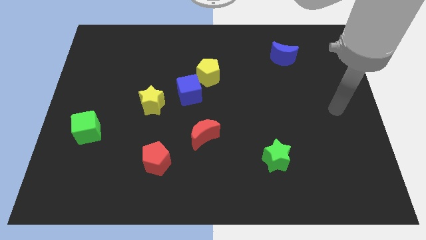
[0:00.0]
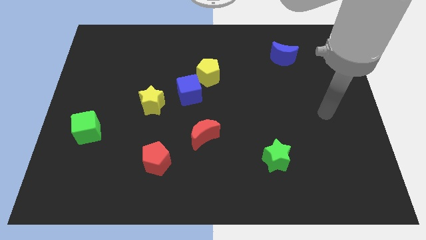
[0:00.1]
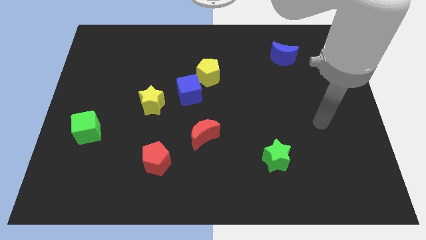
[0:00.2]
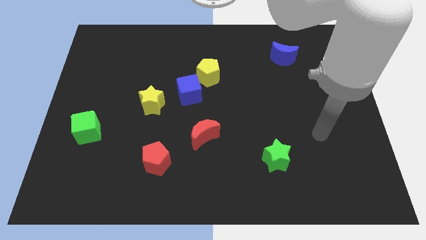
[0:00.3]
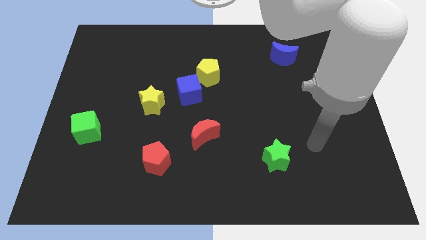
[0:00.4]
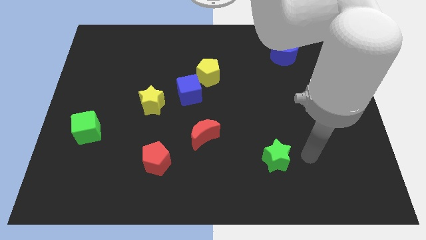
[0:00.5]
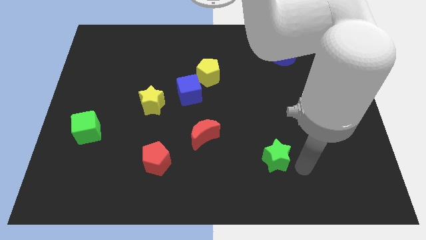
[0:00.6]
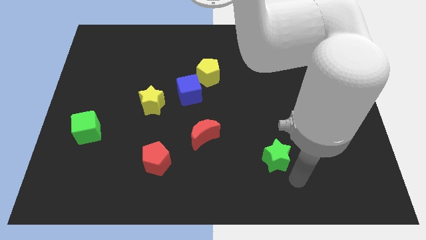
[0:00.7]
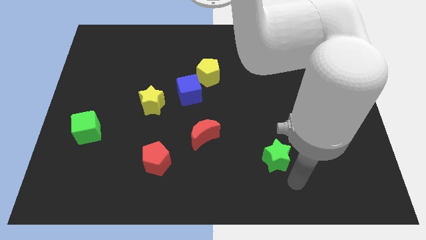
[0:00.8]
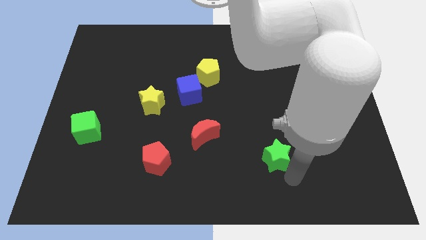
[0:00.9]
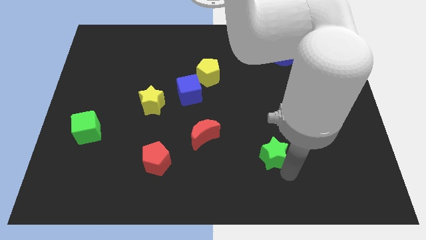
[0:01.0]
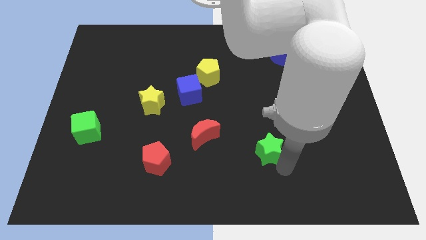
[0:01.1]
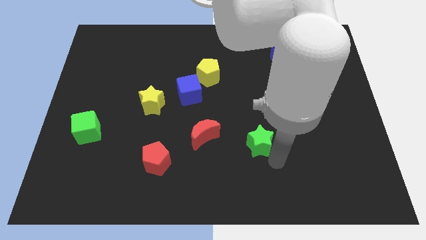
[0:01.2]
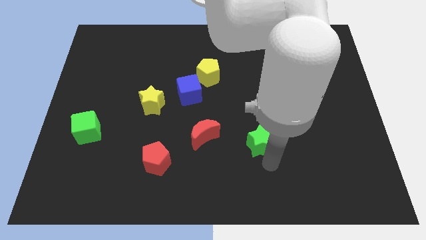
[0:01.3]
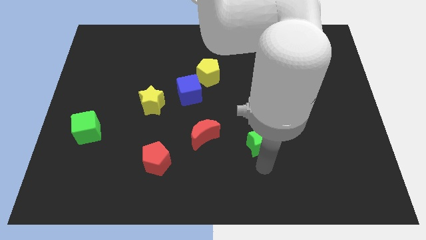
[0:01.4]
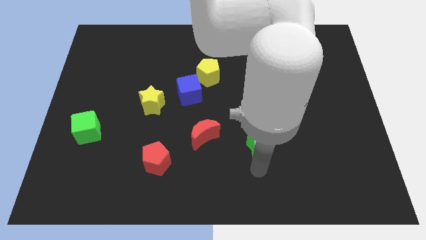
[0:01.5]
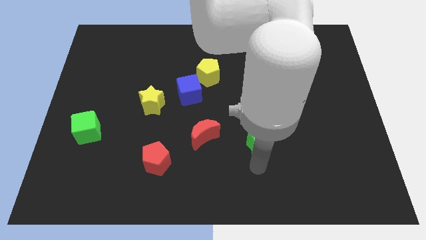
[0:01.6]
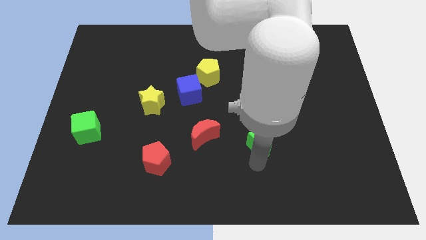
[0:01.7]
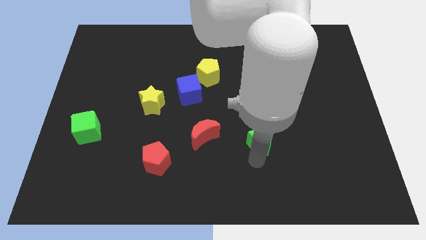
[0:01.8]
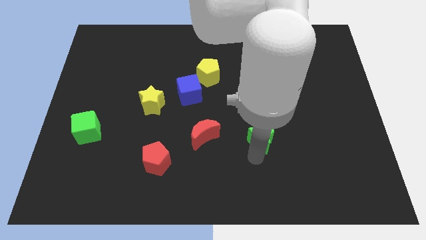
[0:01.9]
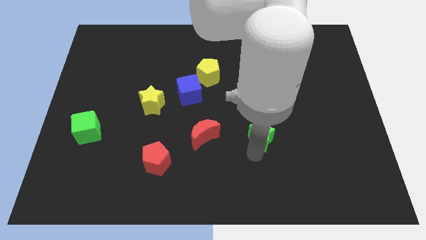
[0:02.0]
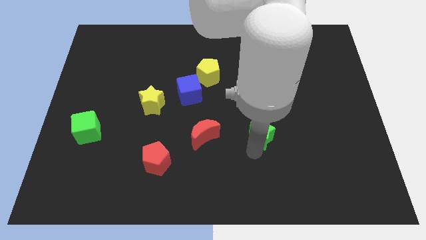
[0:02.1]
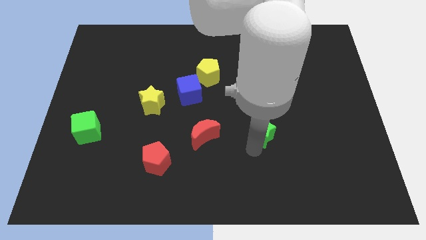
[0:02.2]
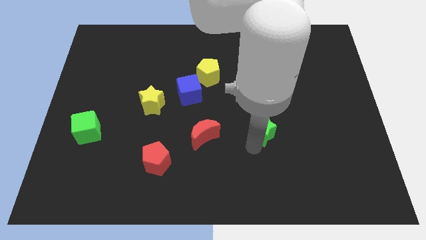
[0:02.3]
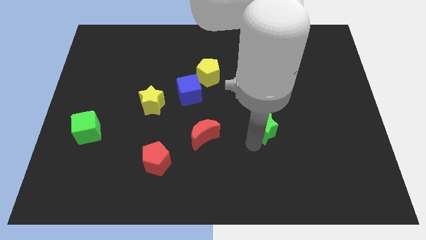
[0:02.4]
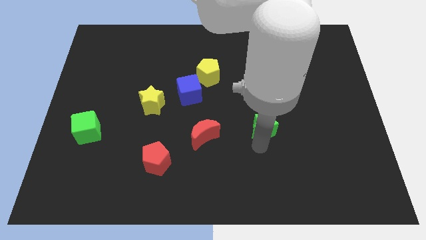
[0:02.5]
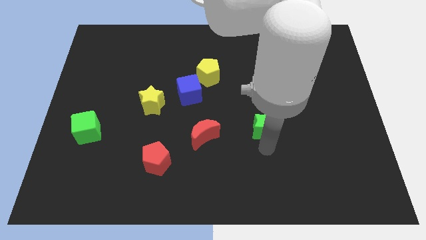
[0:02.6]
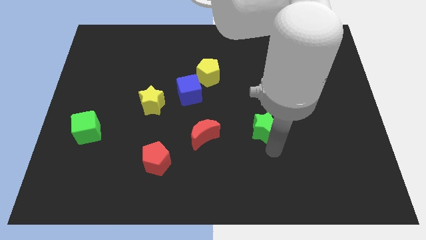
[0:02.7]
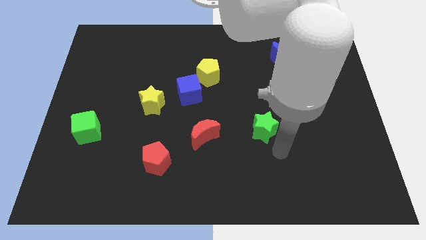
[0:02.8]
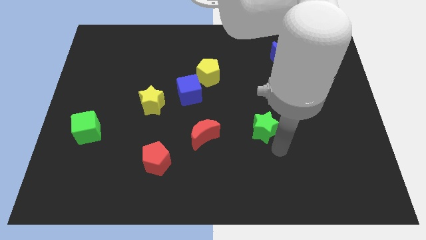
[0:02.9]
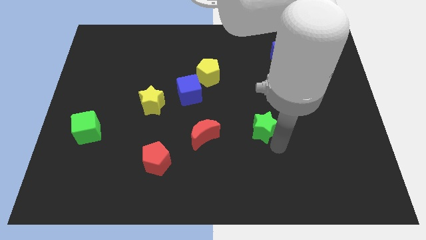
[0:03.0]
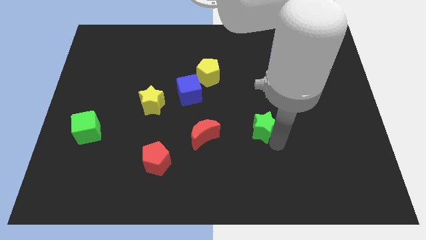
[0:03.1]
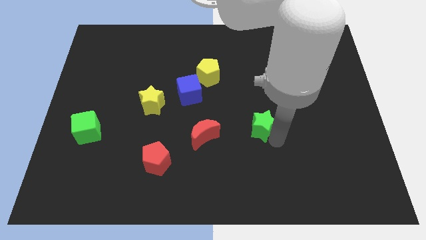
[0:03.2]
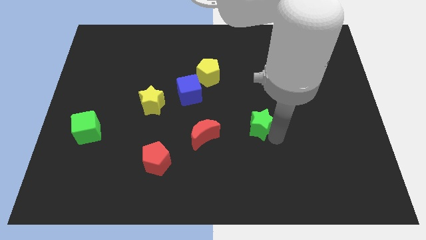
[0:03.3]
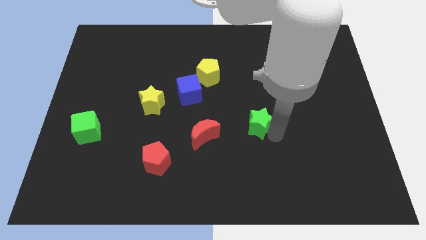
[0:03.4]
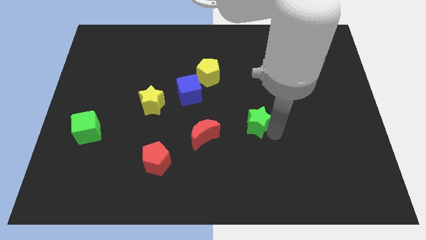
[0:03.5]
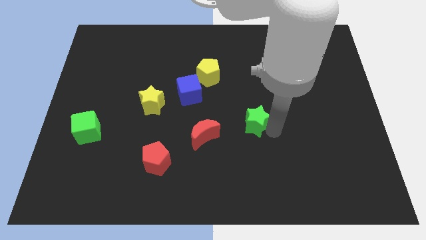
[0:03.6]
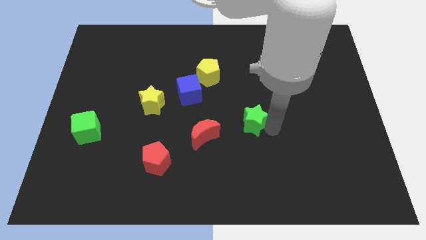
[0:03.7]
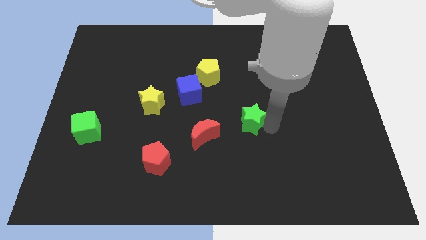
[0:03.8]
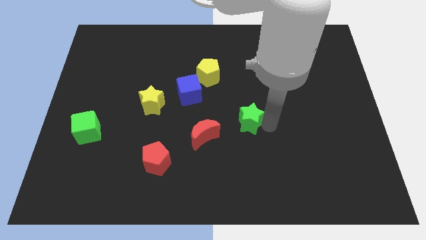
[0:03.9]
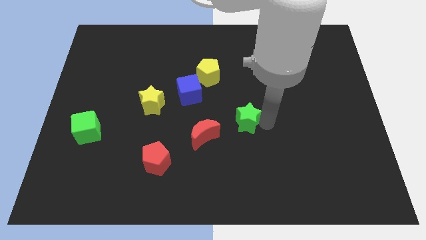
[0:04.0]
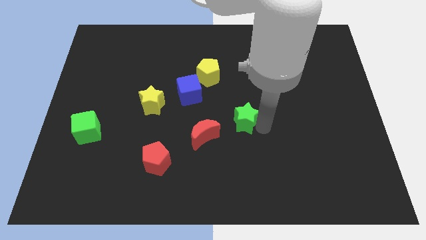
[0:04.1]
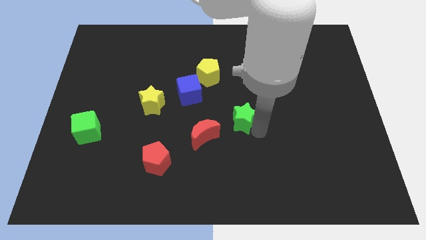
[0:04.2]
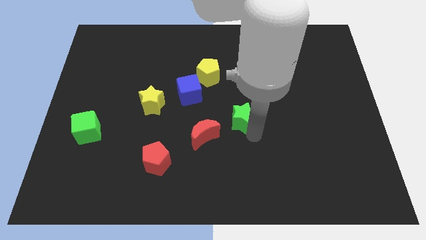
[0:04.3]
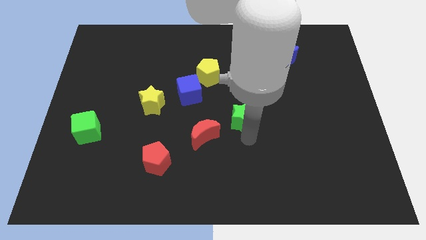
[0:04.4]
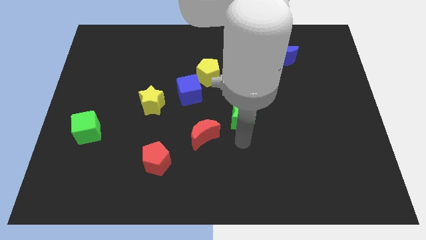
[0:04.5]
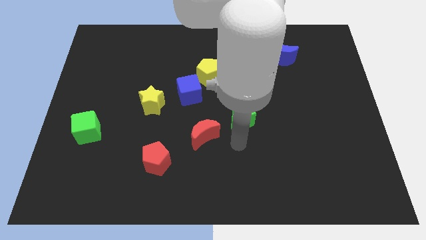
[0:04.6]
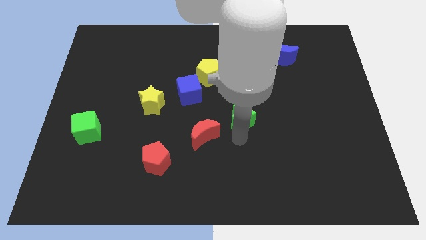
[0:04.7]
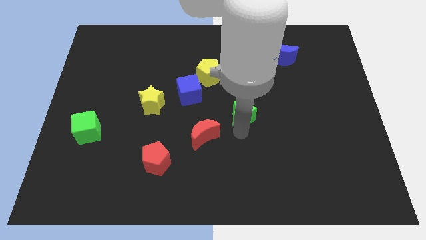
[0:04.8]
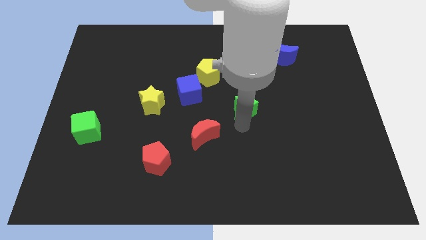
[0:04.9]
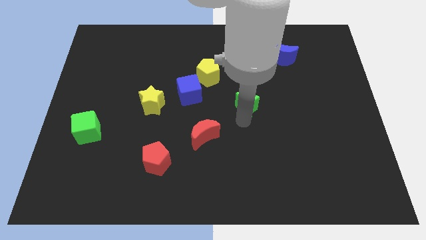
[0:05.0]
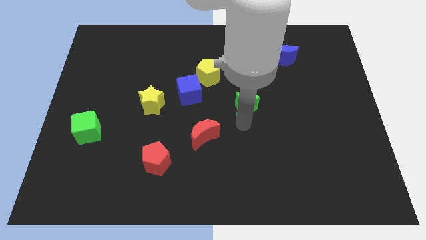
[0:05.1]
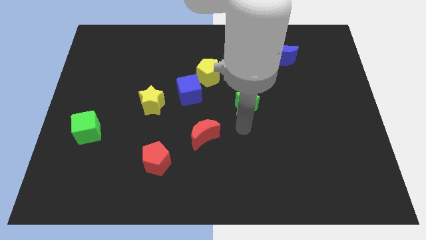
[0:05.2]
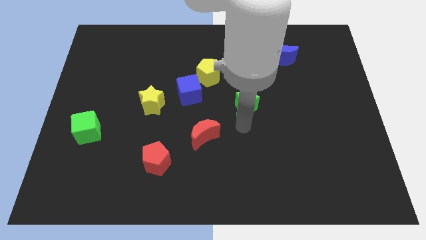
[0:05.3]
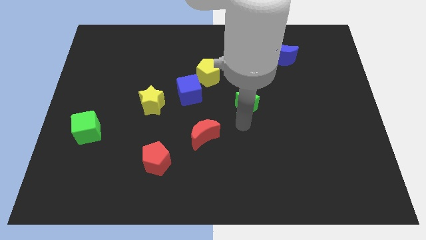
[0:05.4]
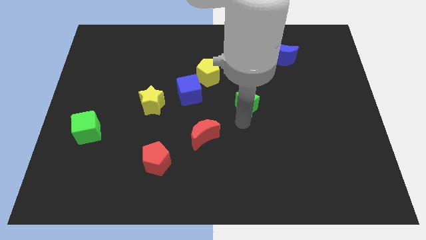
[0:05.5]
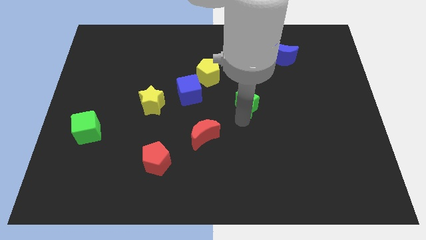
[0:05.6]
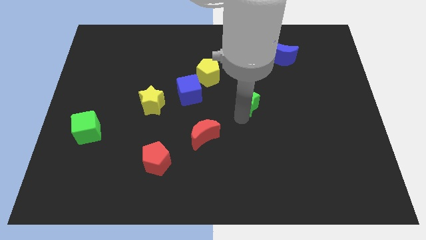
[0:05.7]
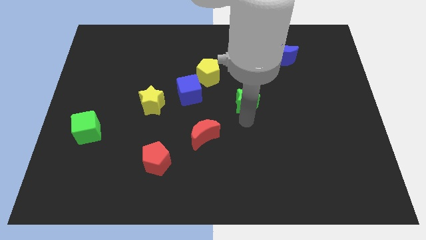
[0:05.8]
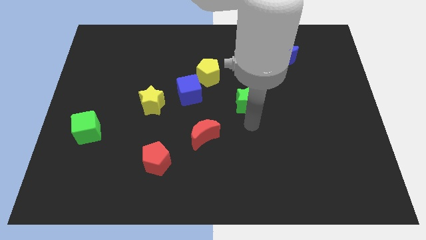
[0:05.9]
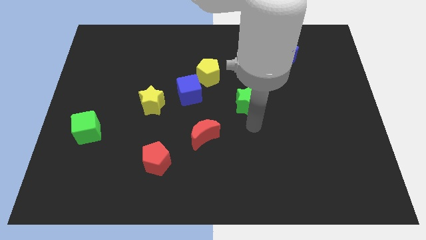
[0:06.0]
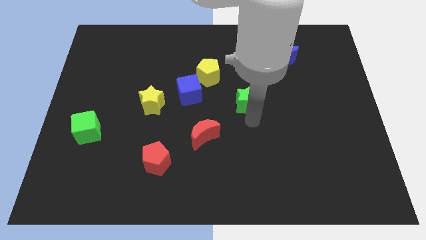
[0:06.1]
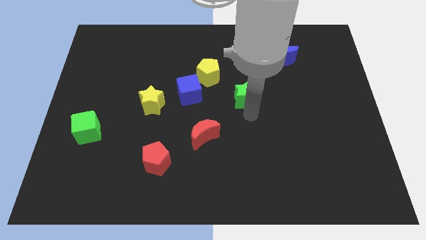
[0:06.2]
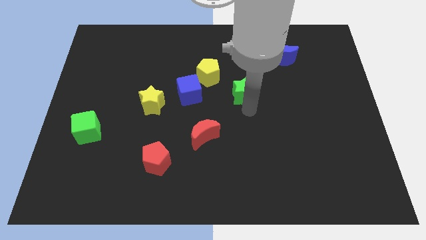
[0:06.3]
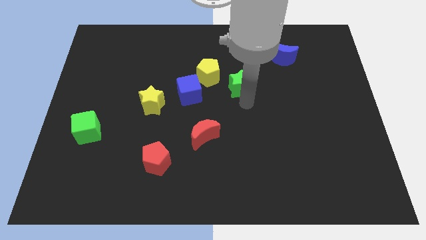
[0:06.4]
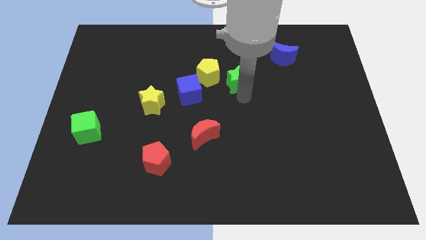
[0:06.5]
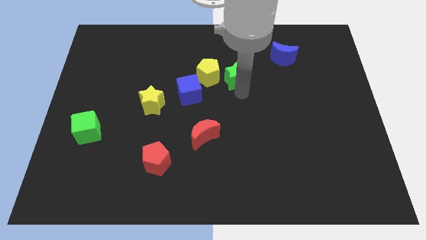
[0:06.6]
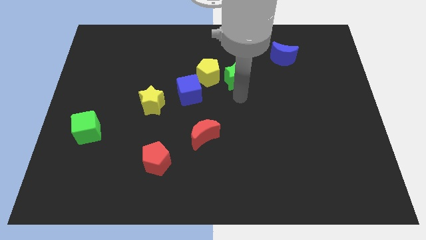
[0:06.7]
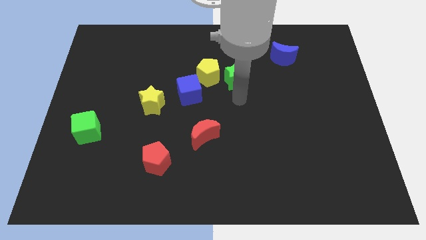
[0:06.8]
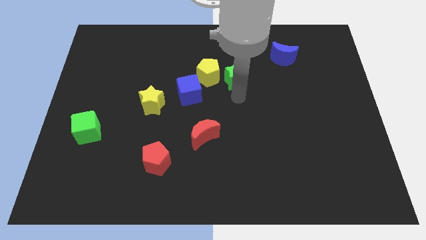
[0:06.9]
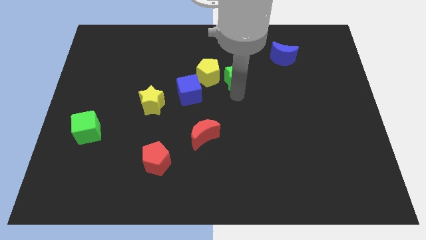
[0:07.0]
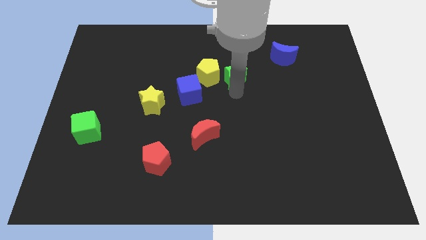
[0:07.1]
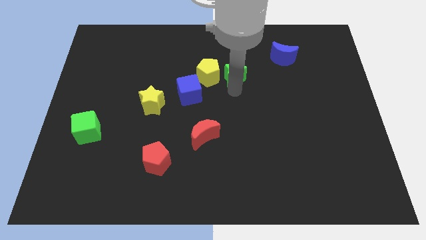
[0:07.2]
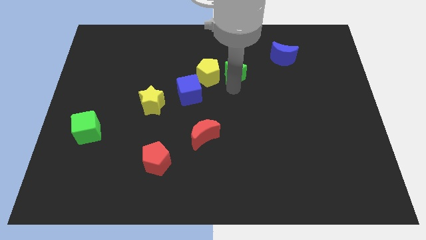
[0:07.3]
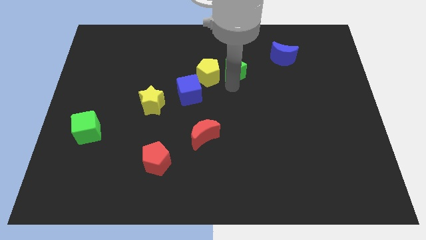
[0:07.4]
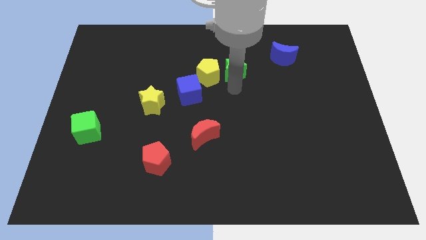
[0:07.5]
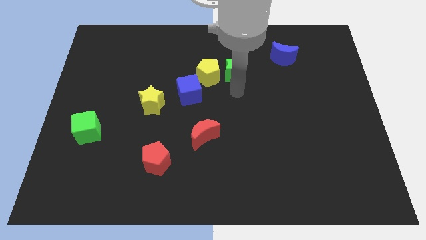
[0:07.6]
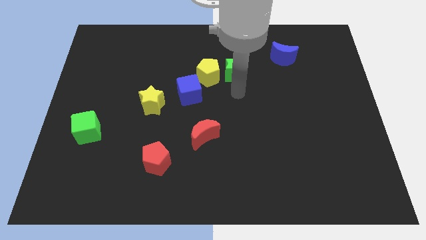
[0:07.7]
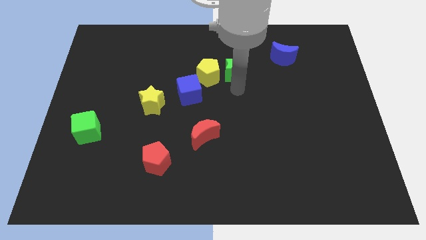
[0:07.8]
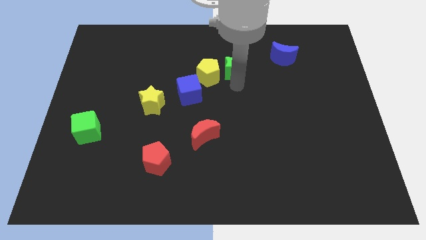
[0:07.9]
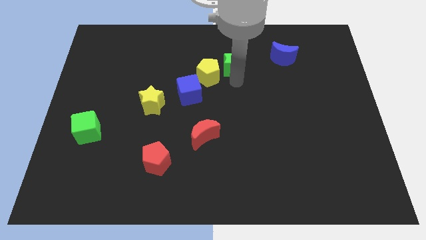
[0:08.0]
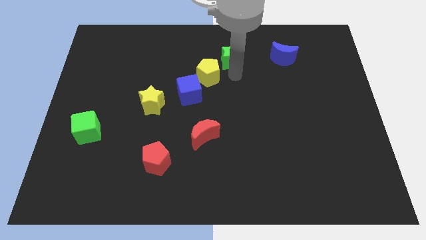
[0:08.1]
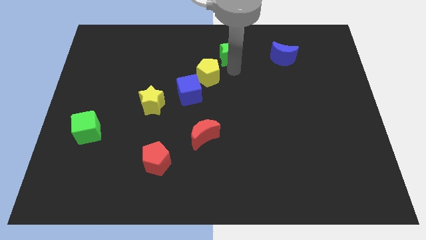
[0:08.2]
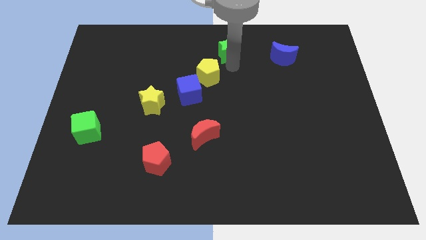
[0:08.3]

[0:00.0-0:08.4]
put the green star to the top side
